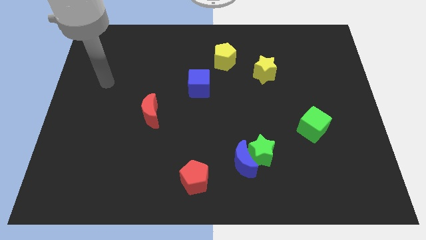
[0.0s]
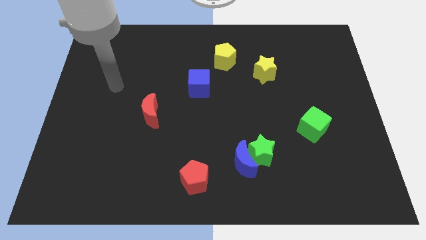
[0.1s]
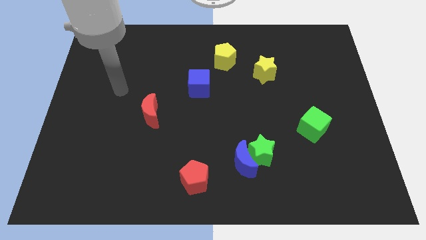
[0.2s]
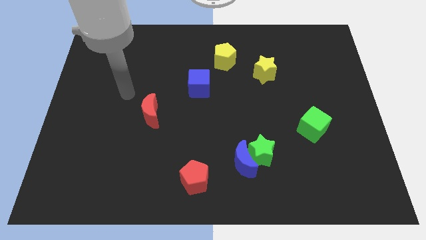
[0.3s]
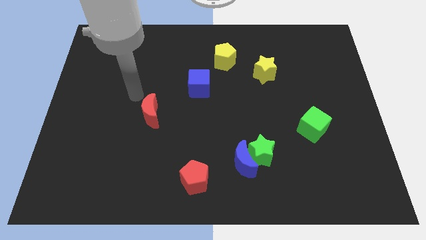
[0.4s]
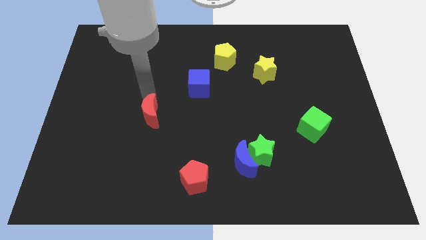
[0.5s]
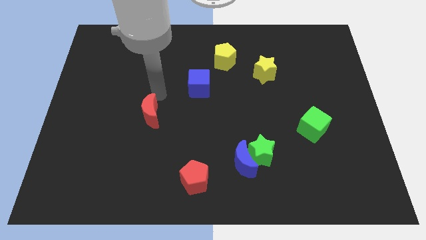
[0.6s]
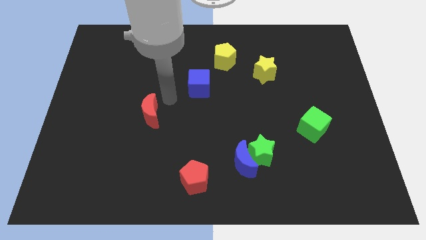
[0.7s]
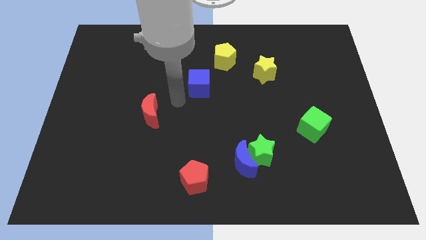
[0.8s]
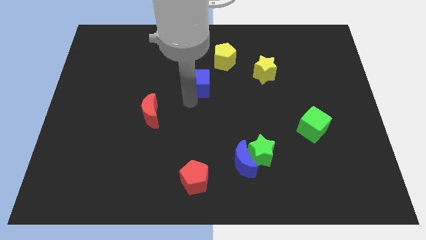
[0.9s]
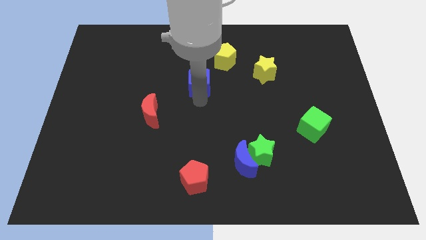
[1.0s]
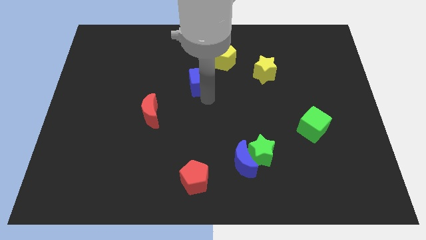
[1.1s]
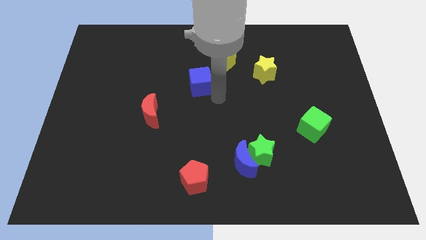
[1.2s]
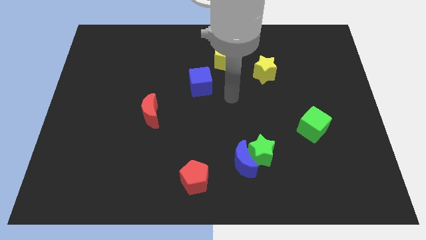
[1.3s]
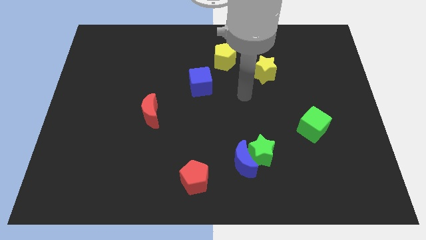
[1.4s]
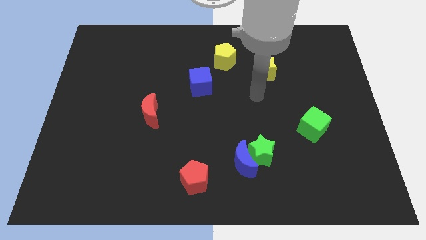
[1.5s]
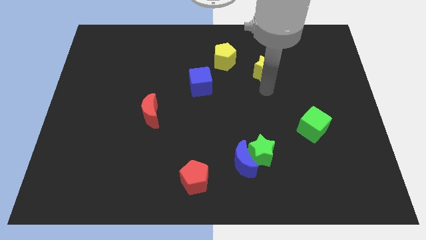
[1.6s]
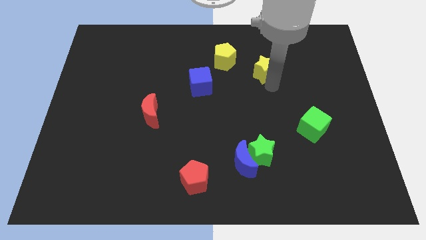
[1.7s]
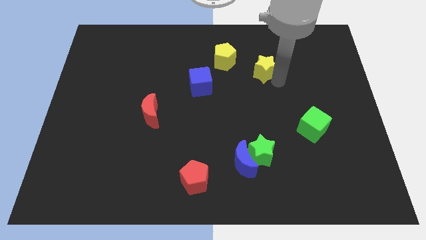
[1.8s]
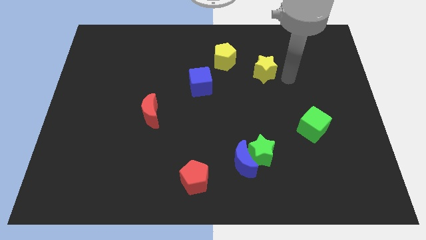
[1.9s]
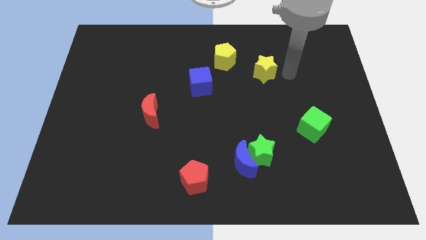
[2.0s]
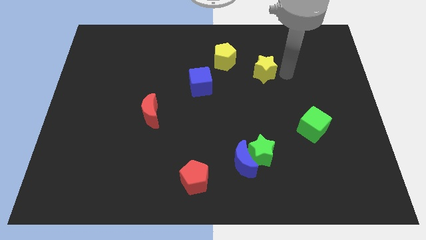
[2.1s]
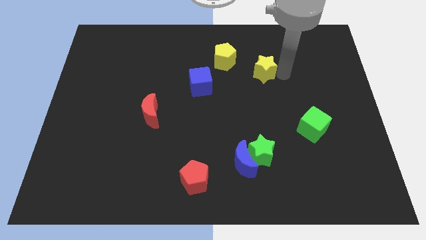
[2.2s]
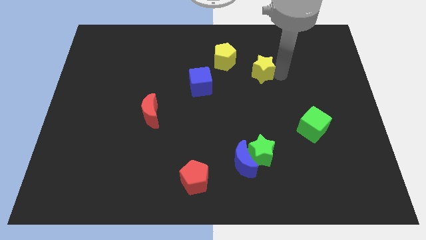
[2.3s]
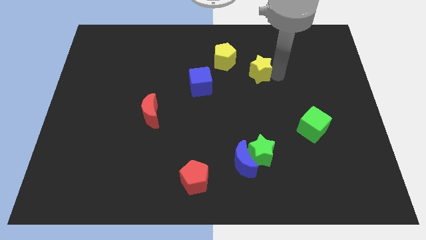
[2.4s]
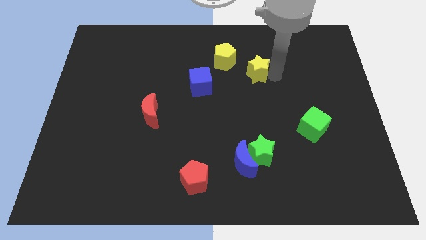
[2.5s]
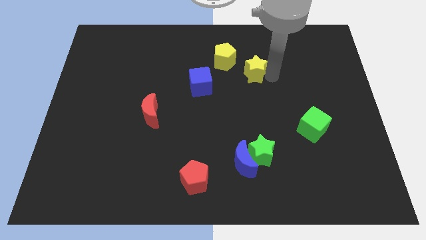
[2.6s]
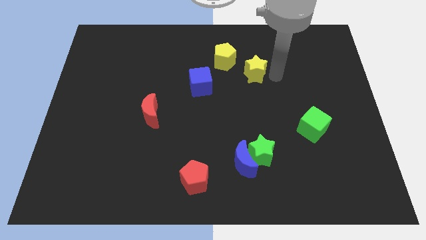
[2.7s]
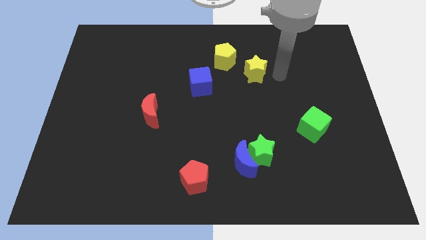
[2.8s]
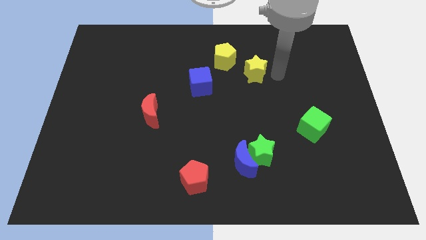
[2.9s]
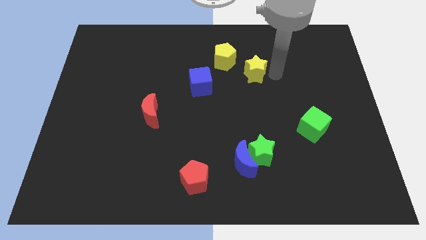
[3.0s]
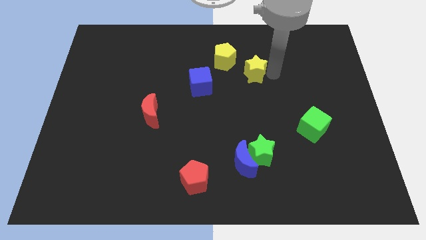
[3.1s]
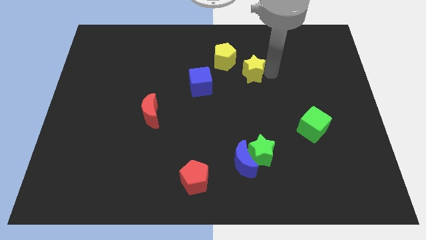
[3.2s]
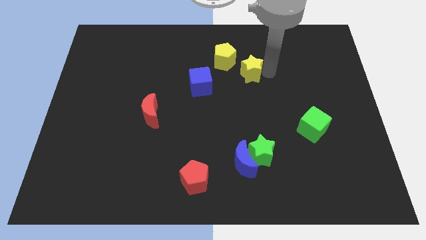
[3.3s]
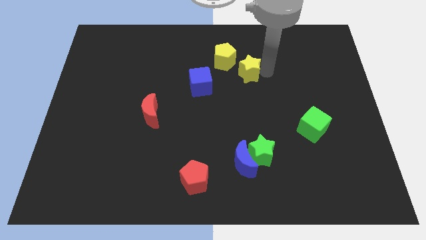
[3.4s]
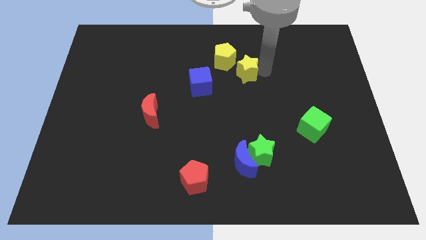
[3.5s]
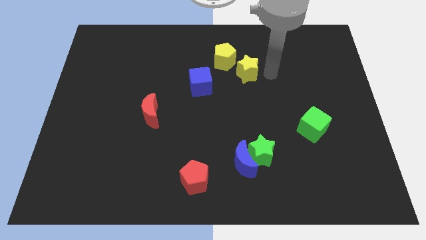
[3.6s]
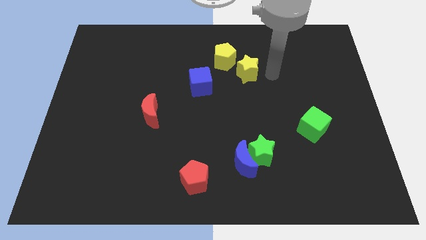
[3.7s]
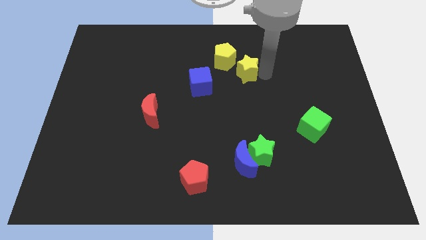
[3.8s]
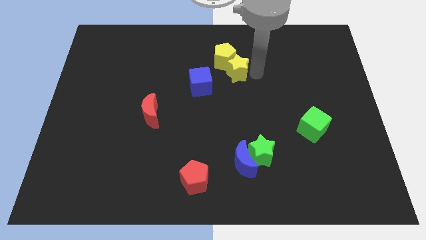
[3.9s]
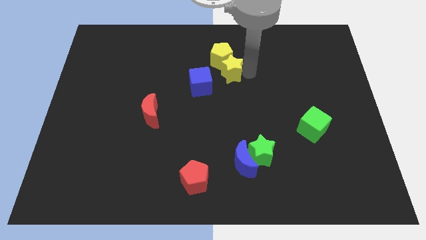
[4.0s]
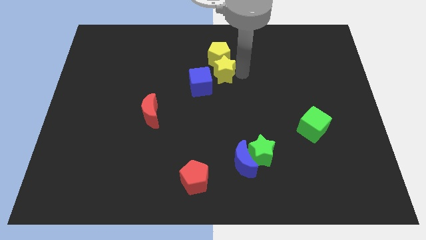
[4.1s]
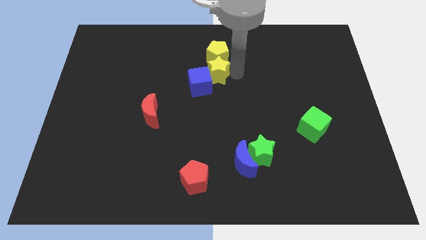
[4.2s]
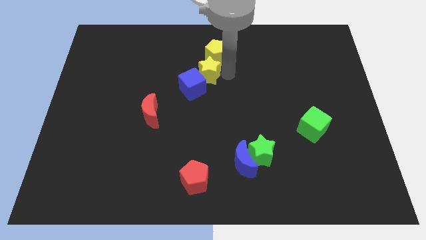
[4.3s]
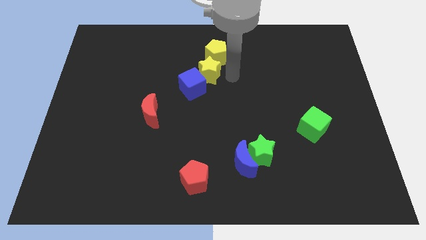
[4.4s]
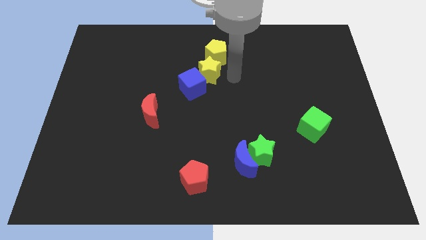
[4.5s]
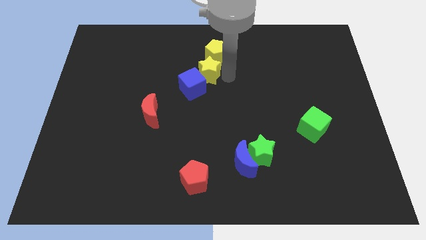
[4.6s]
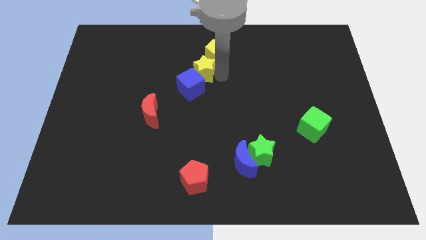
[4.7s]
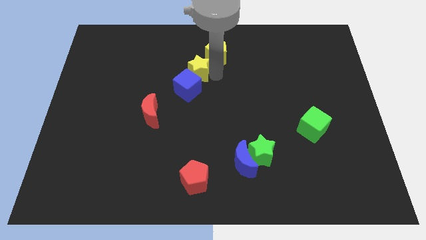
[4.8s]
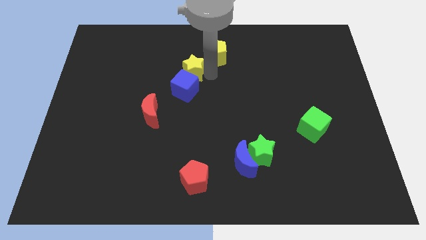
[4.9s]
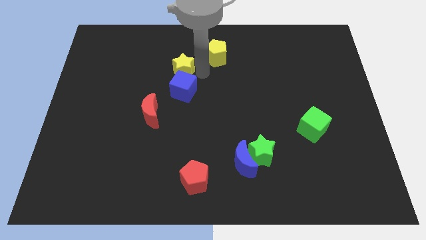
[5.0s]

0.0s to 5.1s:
move the yellow star to the left

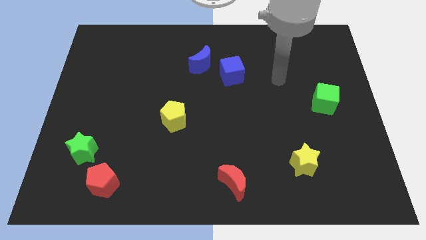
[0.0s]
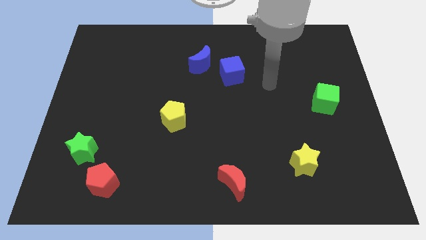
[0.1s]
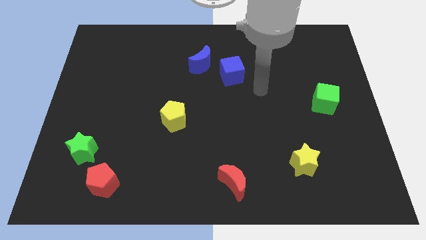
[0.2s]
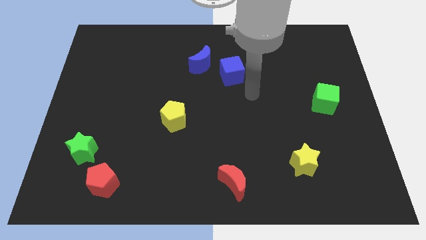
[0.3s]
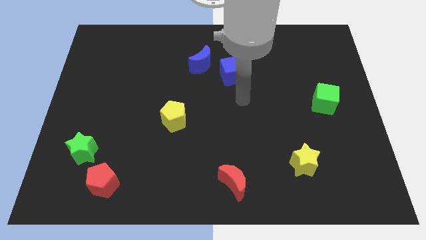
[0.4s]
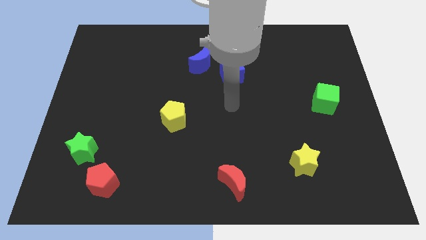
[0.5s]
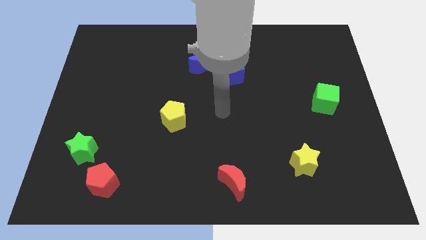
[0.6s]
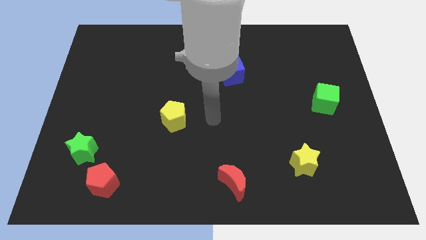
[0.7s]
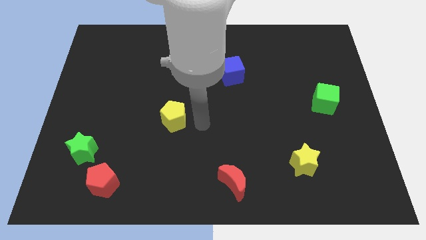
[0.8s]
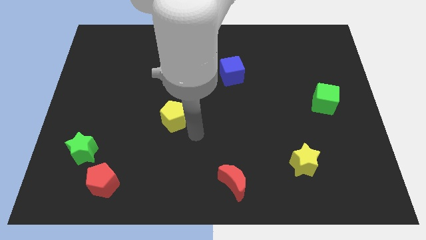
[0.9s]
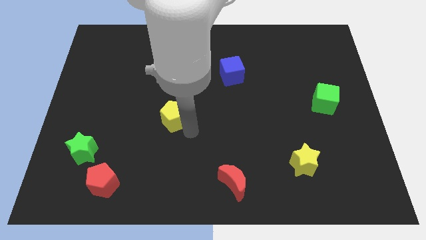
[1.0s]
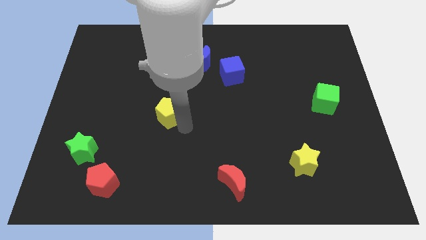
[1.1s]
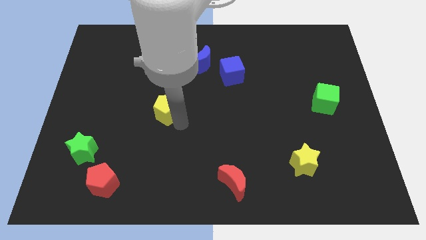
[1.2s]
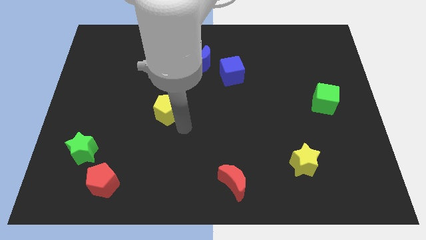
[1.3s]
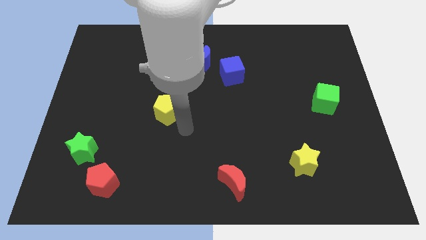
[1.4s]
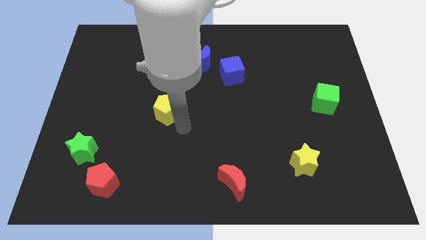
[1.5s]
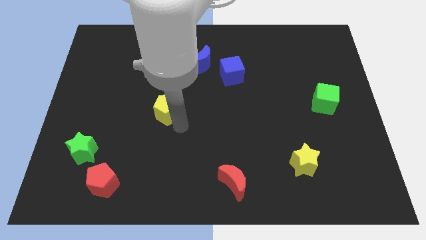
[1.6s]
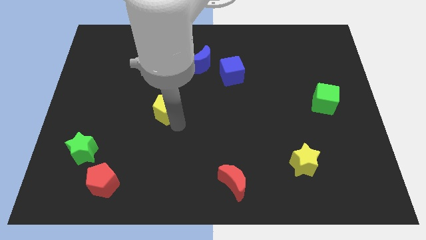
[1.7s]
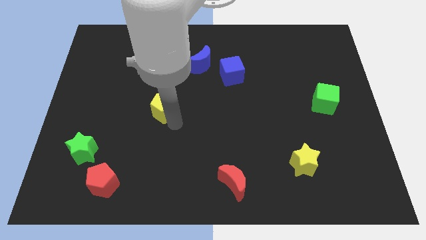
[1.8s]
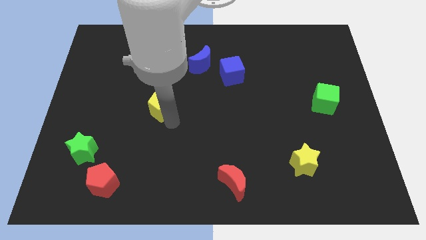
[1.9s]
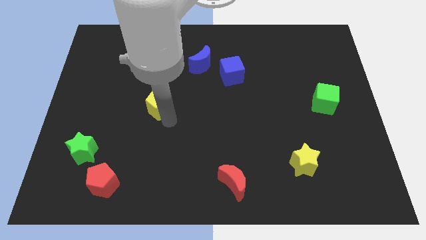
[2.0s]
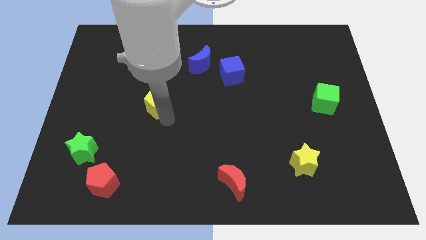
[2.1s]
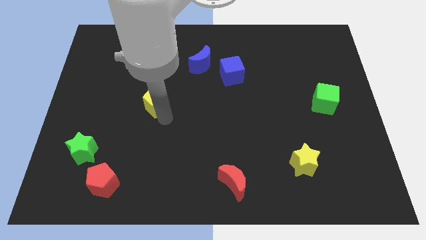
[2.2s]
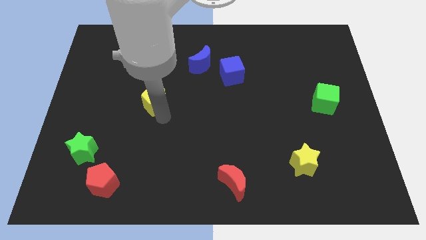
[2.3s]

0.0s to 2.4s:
push the yellow pentagon somewhat diagonally upwards and left

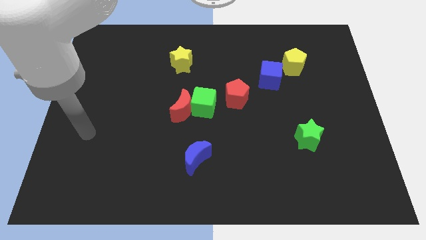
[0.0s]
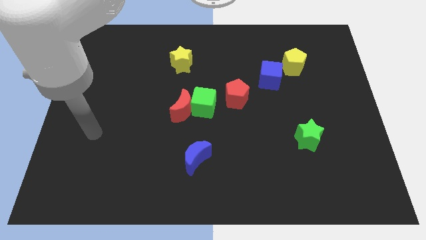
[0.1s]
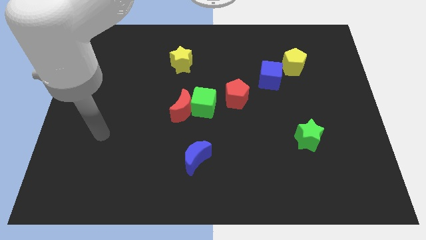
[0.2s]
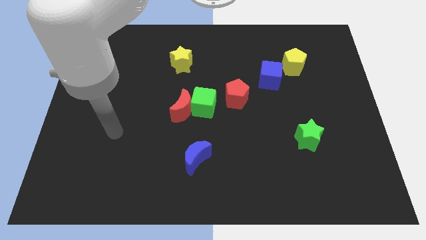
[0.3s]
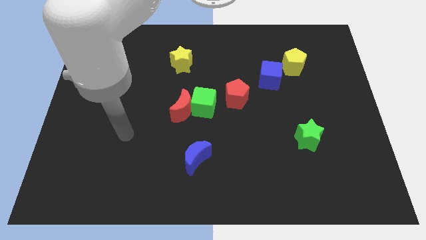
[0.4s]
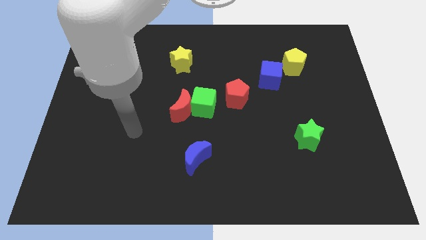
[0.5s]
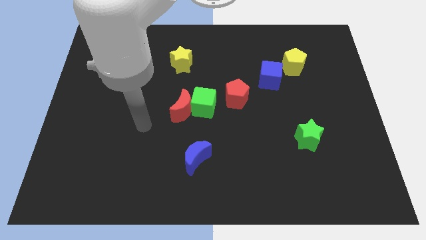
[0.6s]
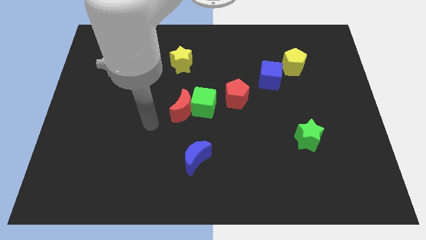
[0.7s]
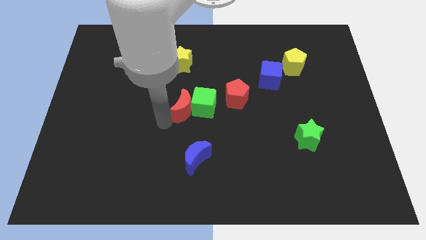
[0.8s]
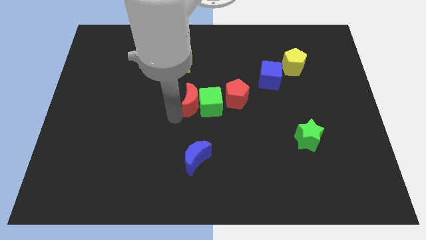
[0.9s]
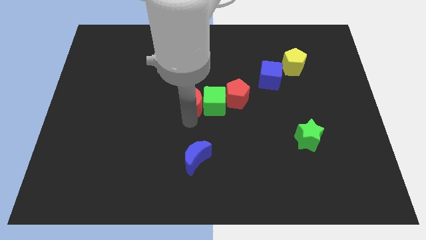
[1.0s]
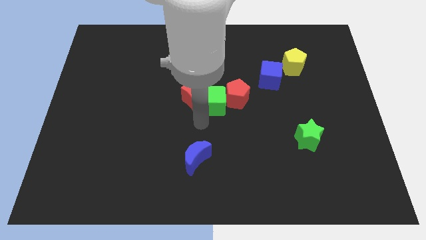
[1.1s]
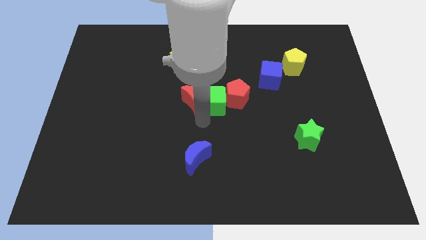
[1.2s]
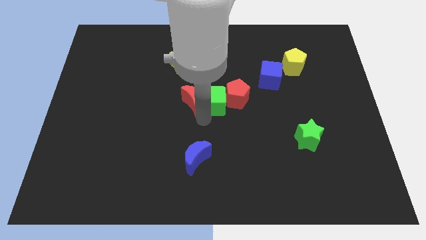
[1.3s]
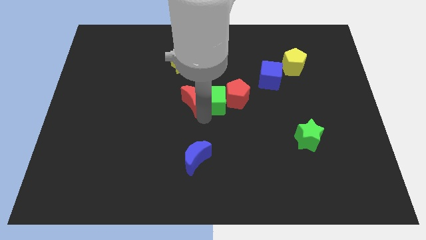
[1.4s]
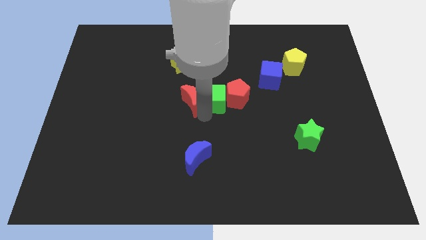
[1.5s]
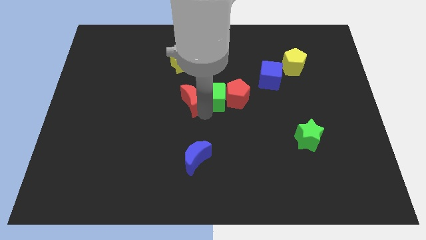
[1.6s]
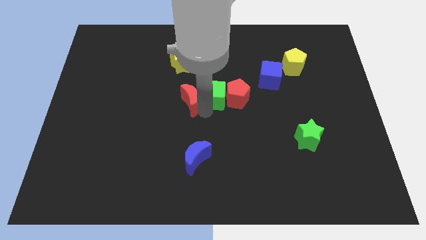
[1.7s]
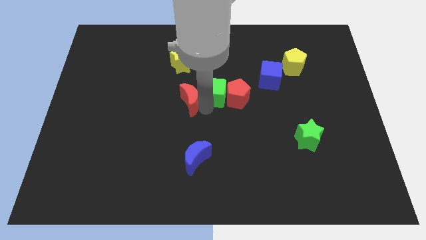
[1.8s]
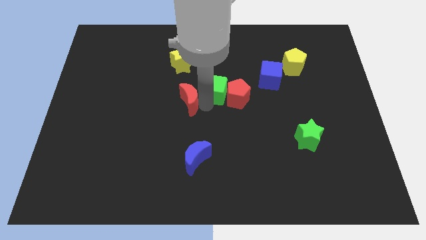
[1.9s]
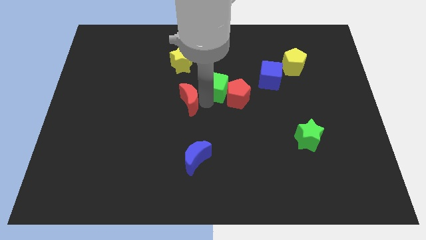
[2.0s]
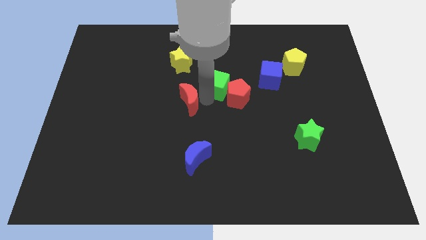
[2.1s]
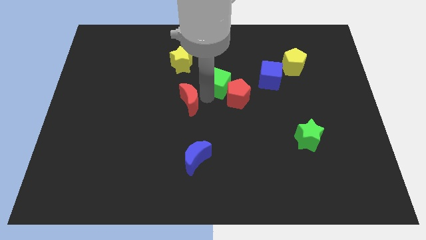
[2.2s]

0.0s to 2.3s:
slide the green cube upwards and right diagonally a little
